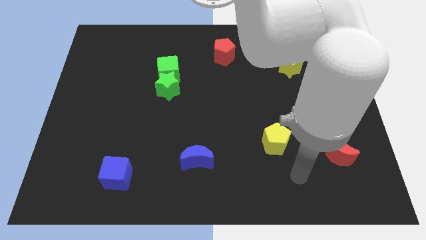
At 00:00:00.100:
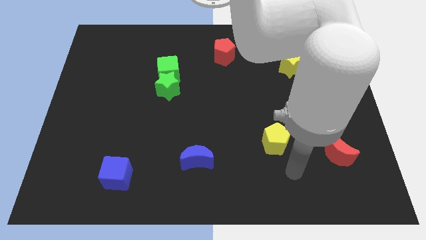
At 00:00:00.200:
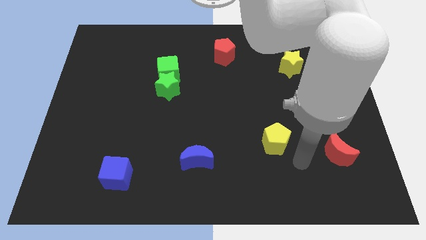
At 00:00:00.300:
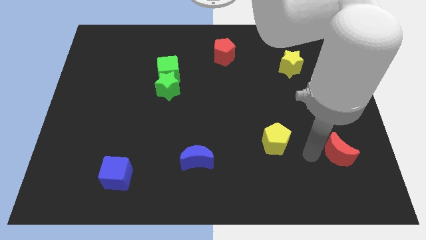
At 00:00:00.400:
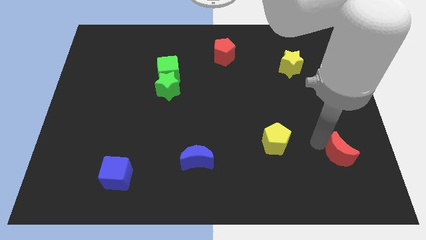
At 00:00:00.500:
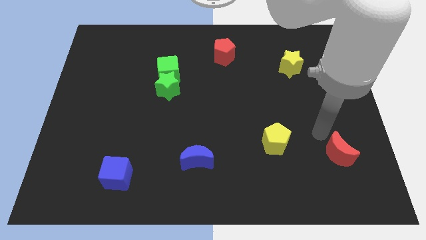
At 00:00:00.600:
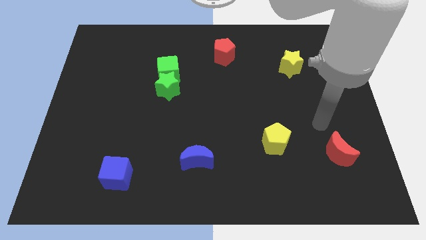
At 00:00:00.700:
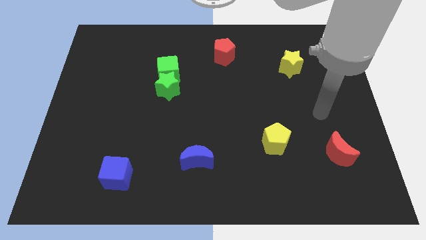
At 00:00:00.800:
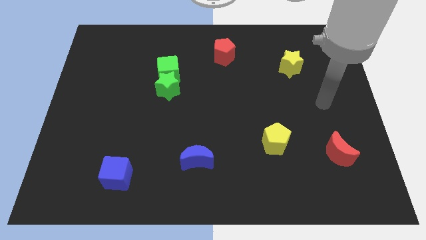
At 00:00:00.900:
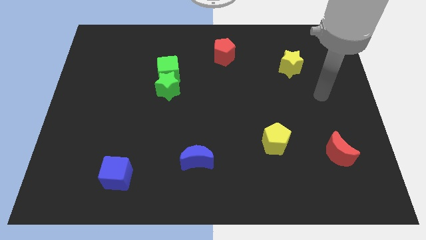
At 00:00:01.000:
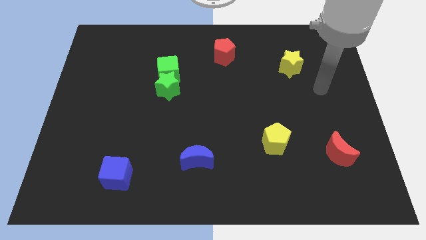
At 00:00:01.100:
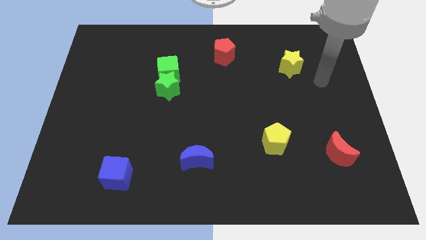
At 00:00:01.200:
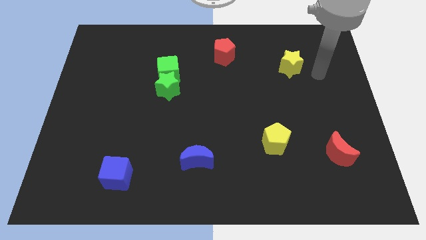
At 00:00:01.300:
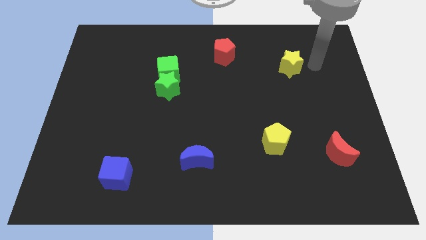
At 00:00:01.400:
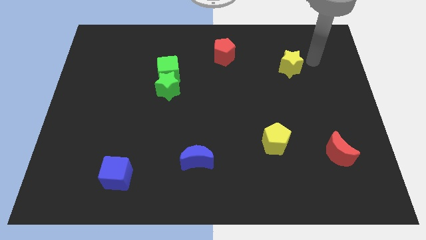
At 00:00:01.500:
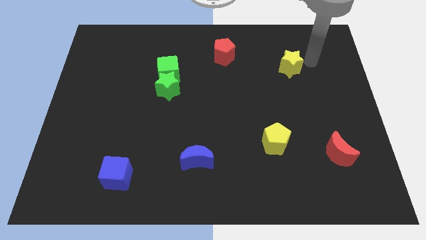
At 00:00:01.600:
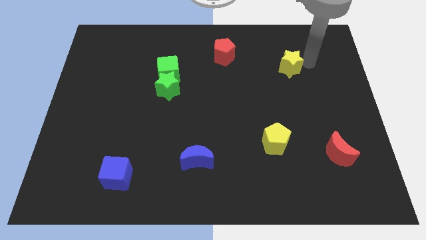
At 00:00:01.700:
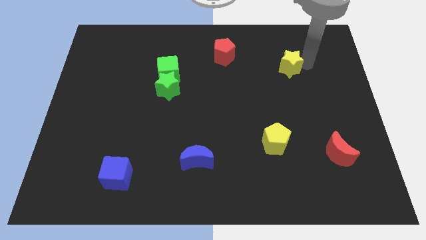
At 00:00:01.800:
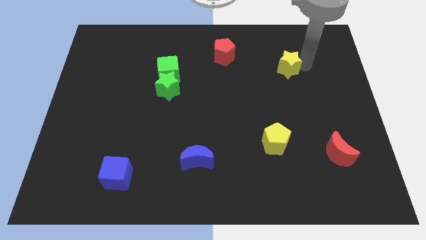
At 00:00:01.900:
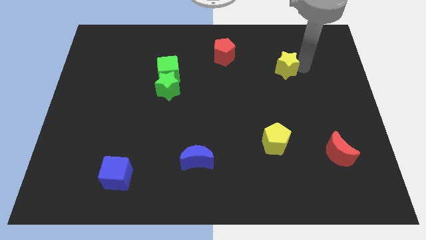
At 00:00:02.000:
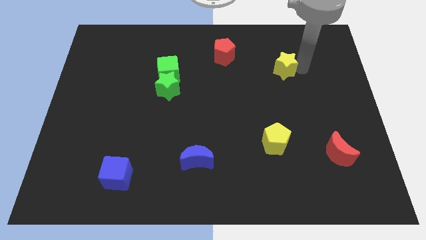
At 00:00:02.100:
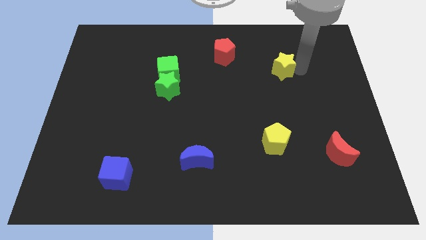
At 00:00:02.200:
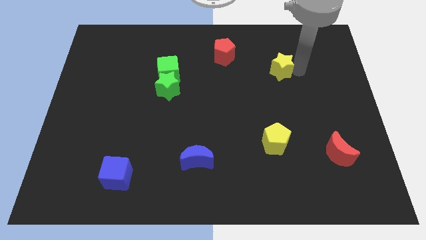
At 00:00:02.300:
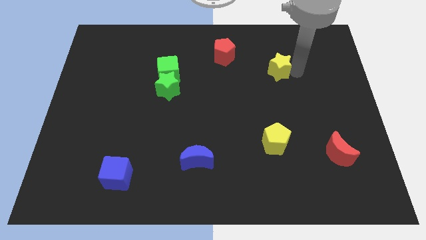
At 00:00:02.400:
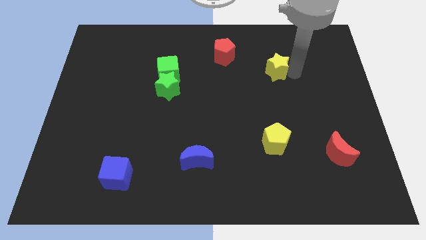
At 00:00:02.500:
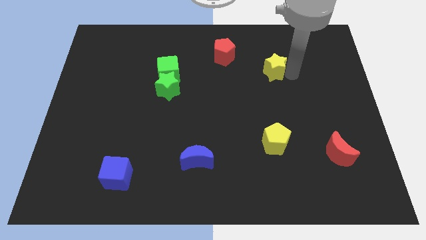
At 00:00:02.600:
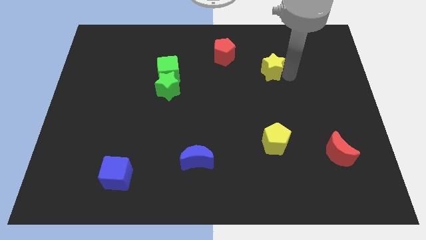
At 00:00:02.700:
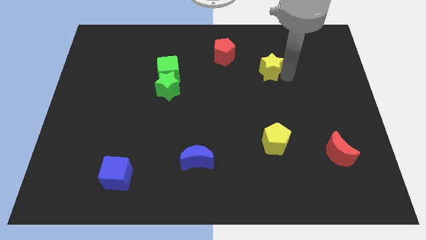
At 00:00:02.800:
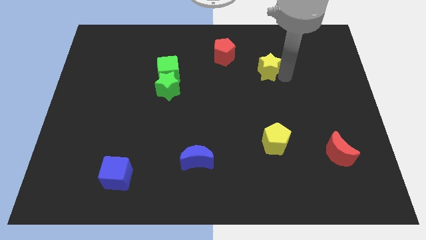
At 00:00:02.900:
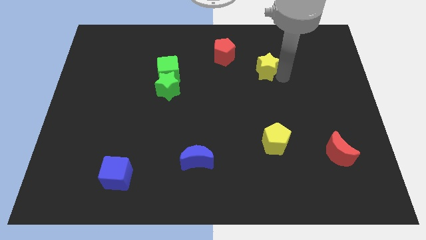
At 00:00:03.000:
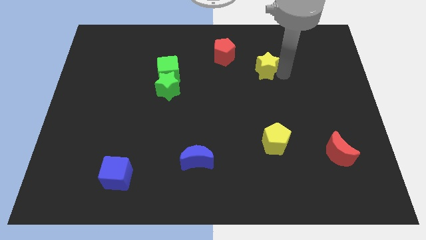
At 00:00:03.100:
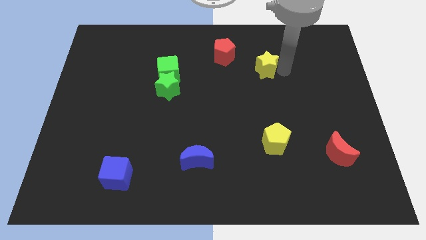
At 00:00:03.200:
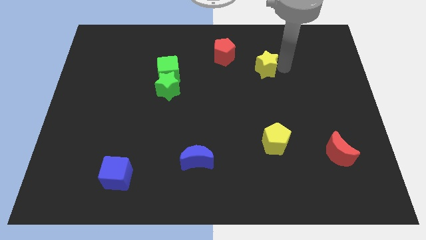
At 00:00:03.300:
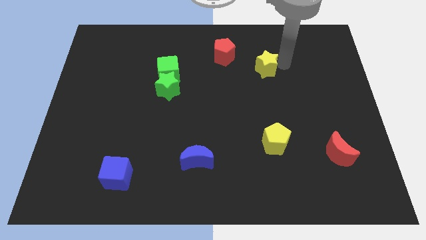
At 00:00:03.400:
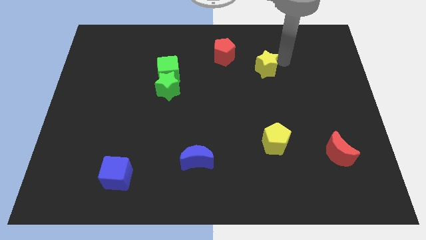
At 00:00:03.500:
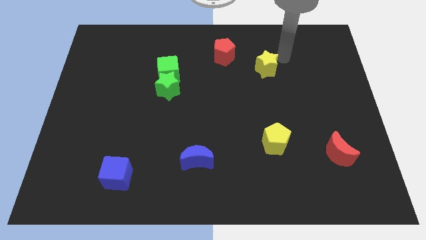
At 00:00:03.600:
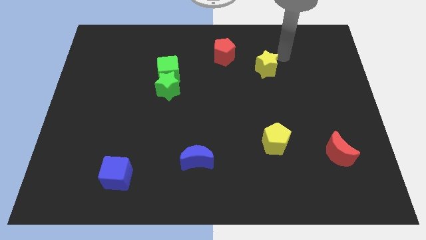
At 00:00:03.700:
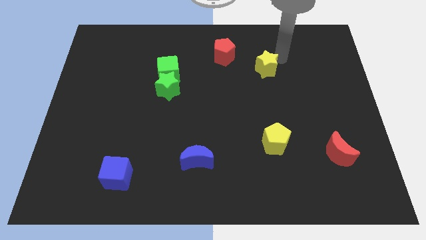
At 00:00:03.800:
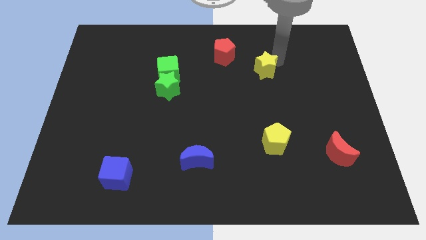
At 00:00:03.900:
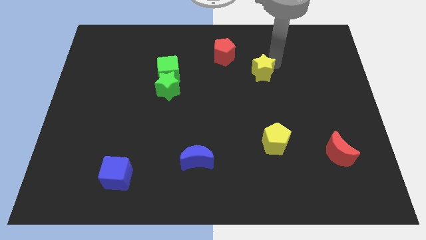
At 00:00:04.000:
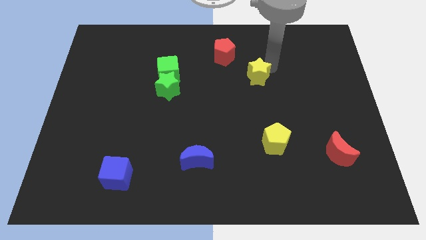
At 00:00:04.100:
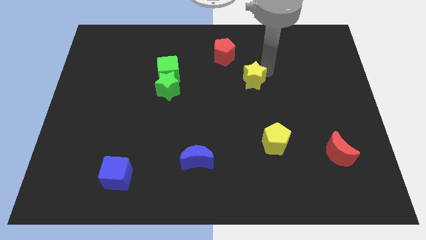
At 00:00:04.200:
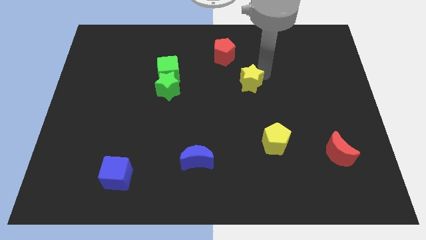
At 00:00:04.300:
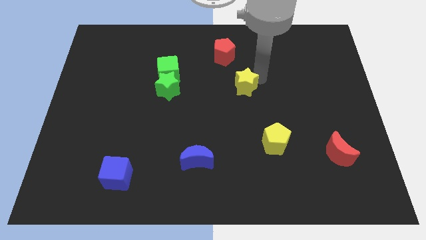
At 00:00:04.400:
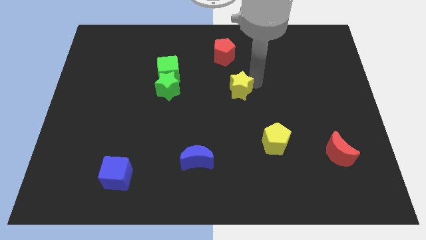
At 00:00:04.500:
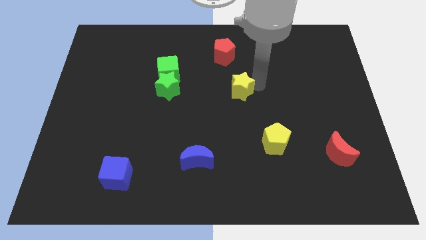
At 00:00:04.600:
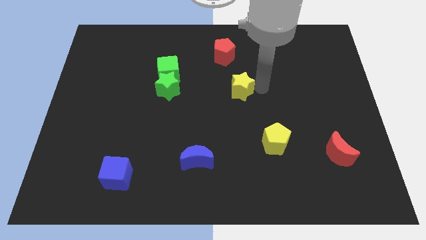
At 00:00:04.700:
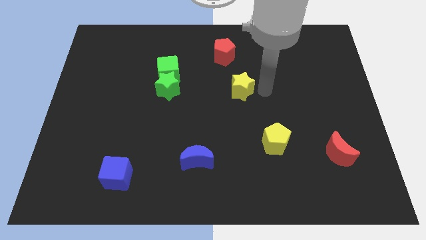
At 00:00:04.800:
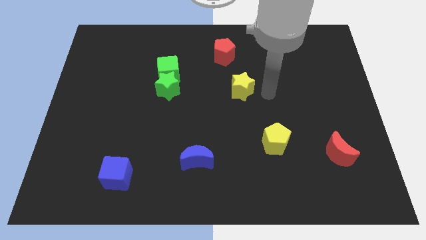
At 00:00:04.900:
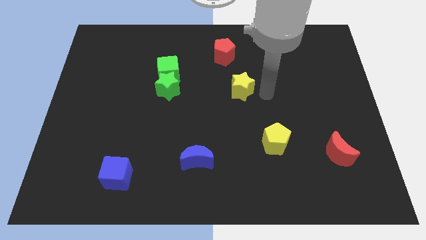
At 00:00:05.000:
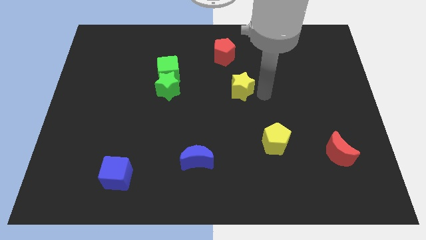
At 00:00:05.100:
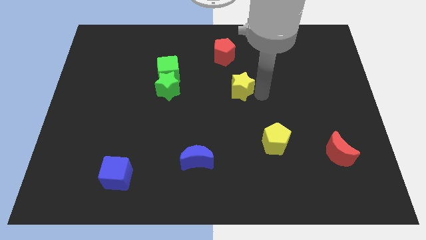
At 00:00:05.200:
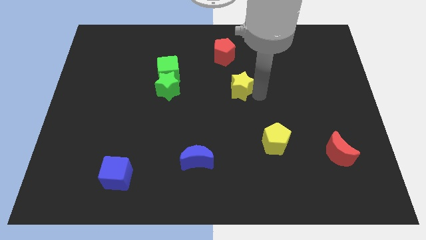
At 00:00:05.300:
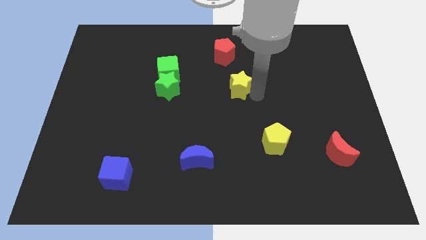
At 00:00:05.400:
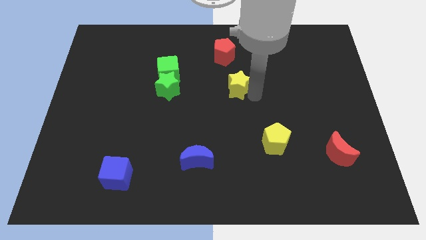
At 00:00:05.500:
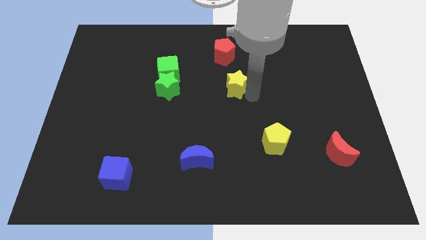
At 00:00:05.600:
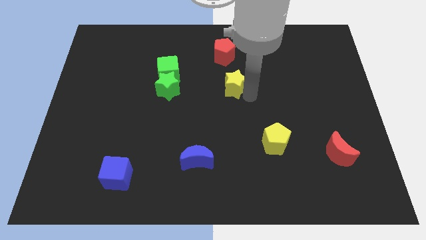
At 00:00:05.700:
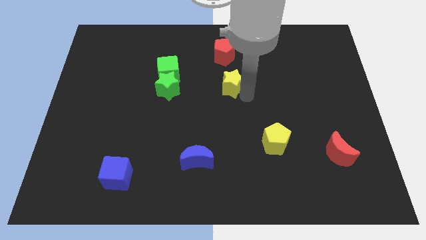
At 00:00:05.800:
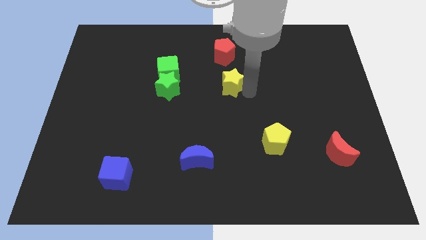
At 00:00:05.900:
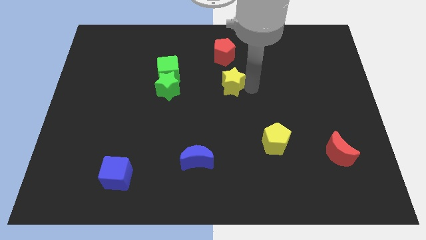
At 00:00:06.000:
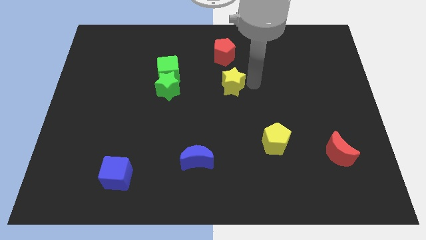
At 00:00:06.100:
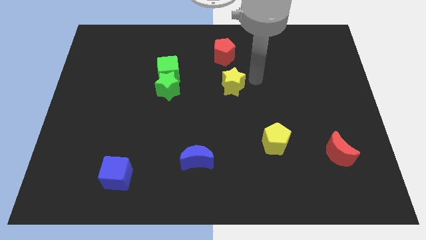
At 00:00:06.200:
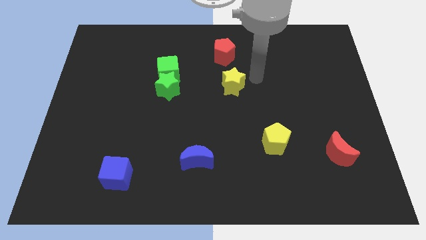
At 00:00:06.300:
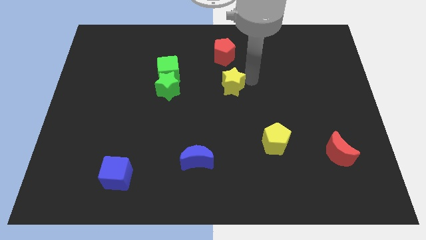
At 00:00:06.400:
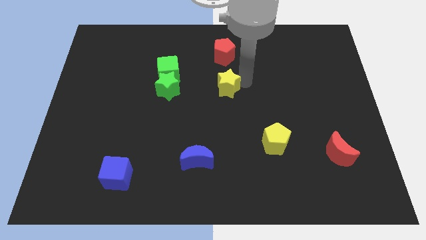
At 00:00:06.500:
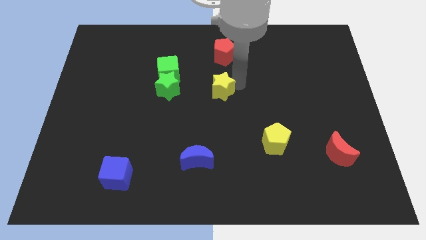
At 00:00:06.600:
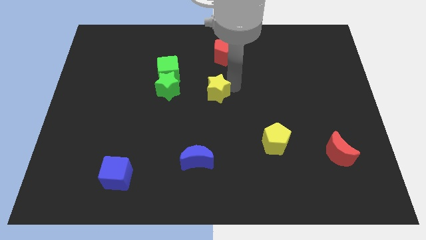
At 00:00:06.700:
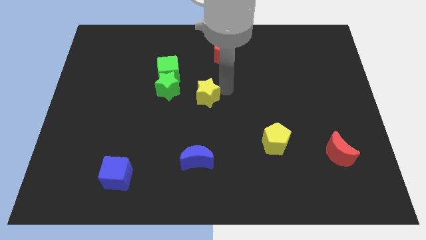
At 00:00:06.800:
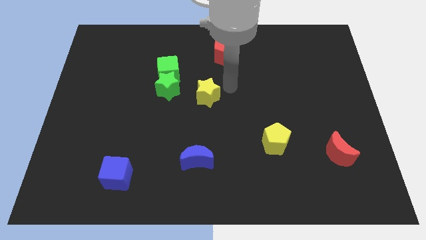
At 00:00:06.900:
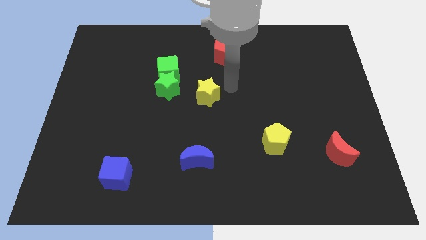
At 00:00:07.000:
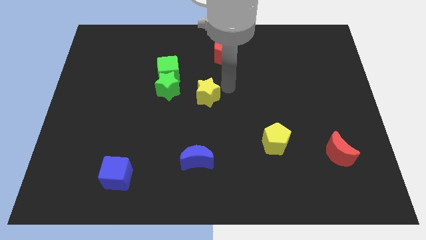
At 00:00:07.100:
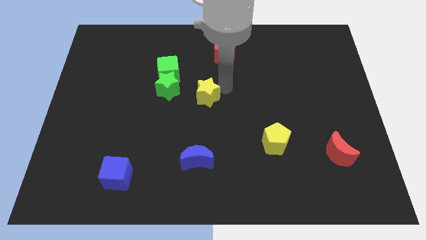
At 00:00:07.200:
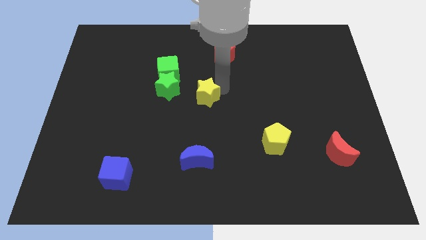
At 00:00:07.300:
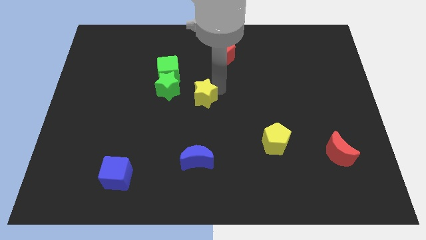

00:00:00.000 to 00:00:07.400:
put the yellow star to the bottom right side of the green star
